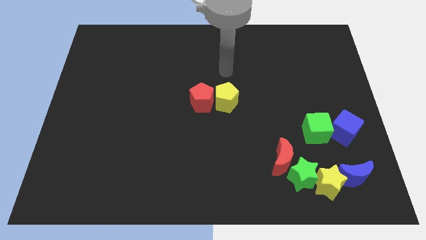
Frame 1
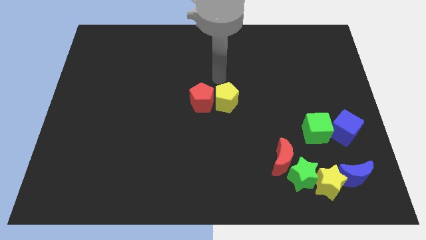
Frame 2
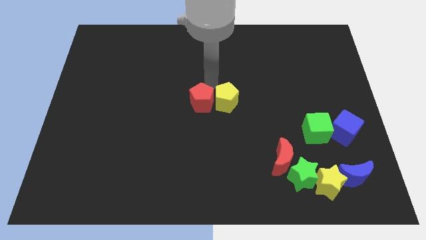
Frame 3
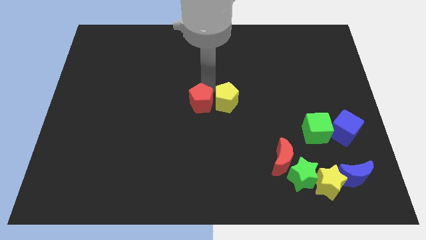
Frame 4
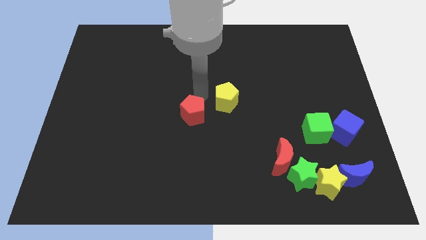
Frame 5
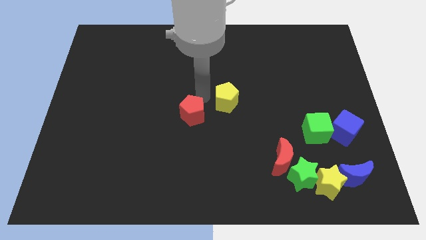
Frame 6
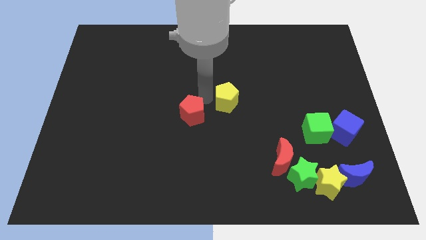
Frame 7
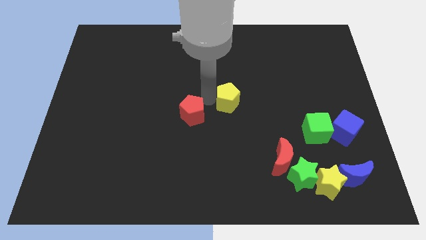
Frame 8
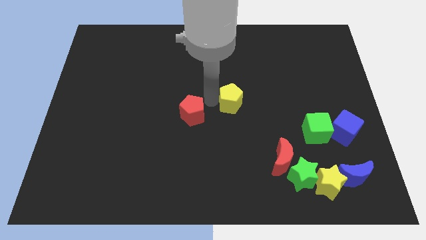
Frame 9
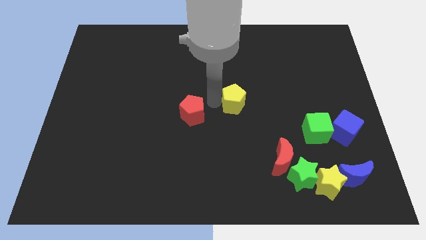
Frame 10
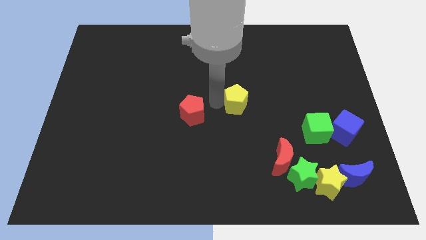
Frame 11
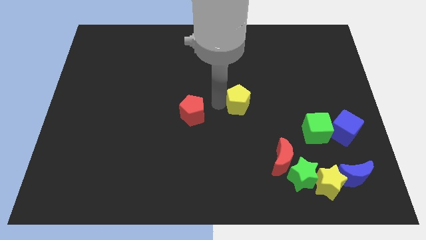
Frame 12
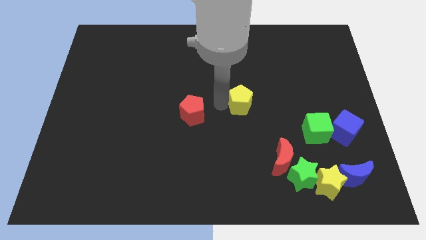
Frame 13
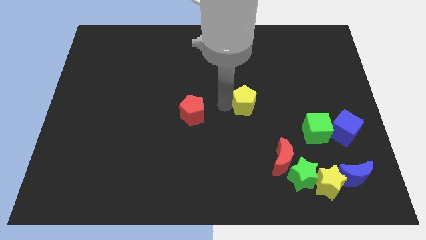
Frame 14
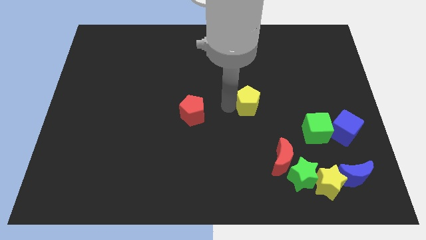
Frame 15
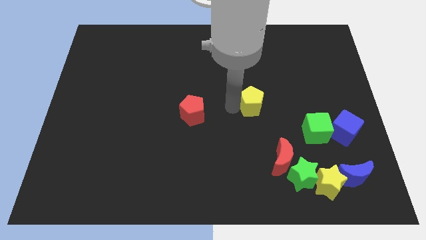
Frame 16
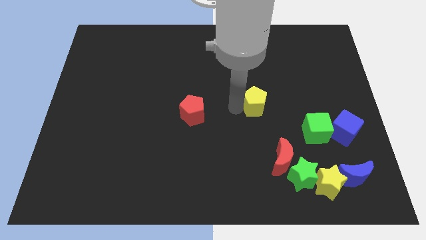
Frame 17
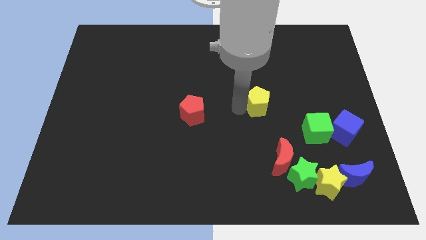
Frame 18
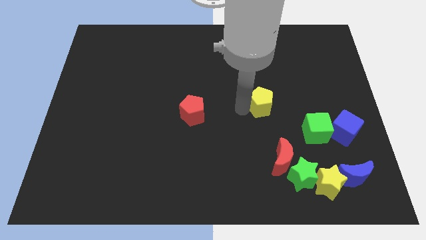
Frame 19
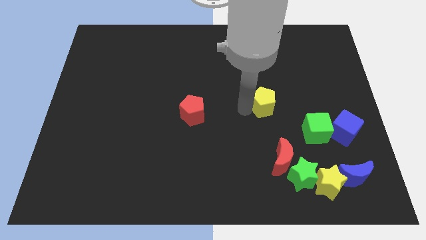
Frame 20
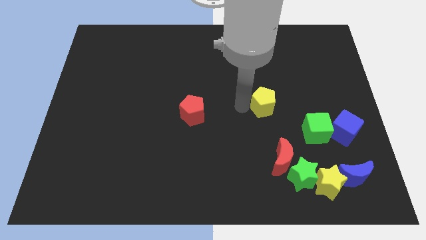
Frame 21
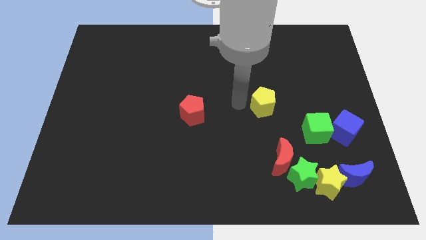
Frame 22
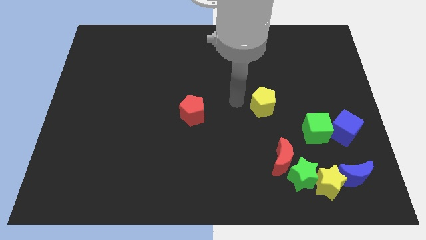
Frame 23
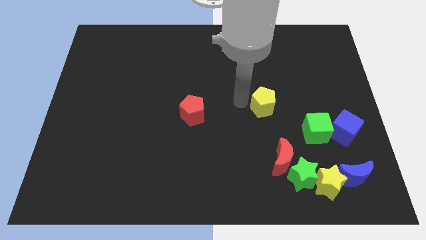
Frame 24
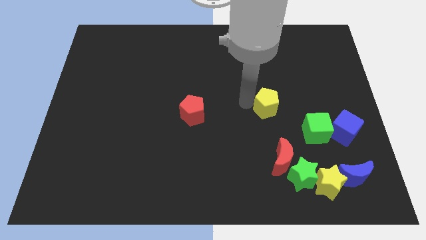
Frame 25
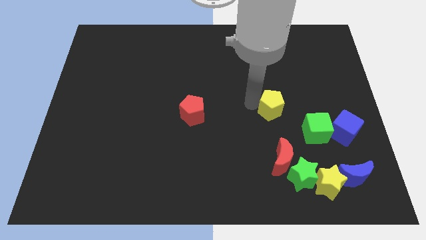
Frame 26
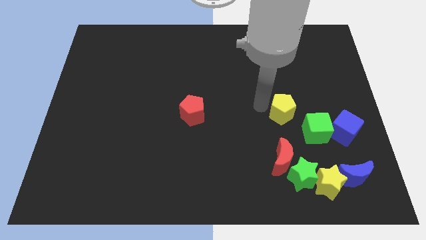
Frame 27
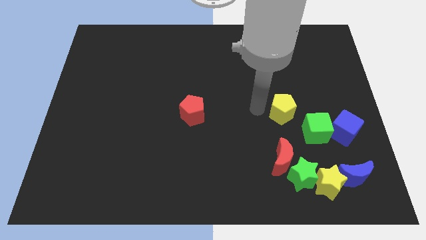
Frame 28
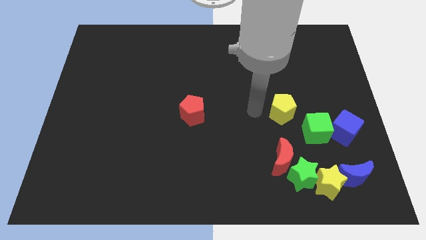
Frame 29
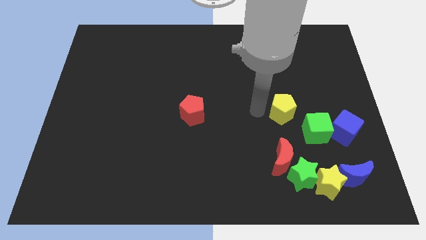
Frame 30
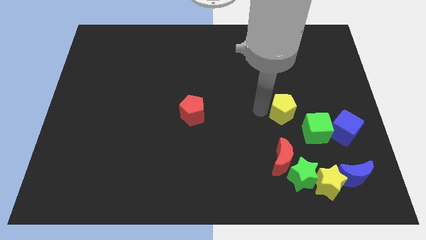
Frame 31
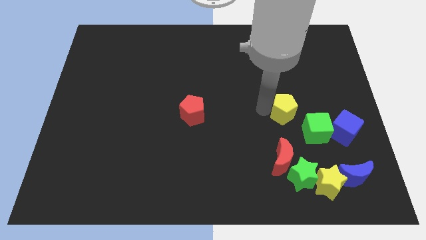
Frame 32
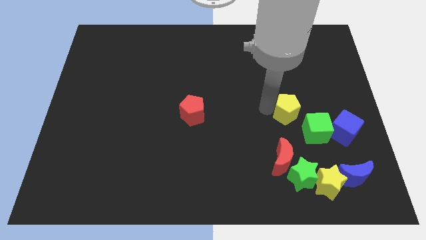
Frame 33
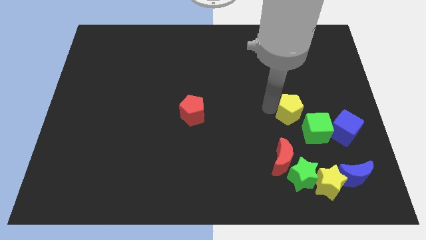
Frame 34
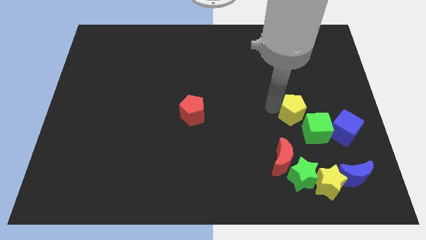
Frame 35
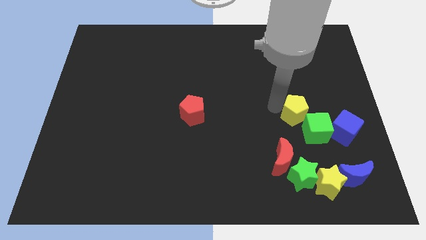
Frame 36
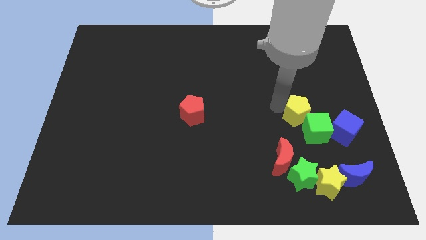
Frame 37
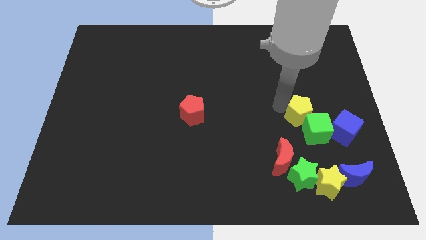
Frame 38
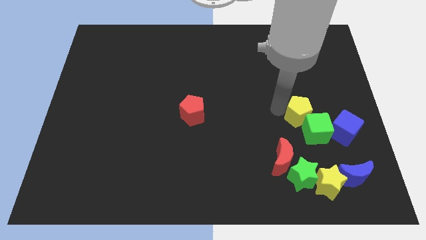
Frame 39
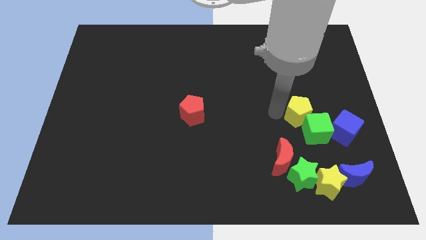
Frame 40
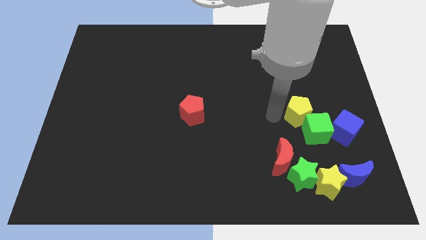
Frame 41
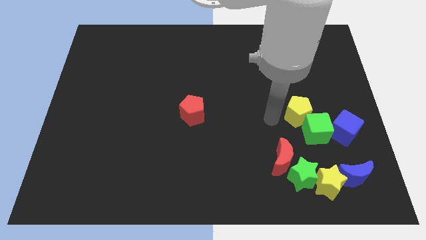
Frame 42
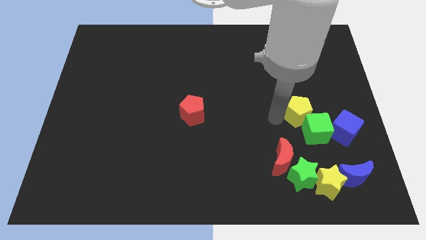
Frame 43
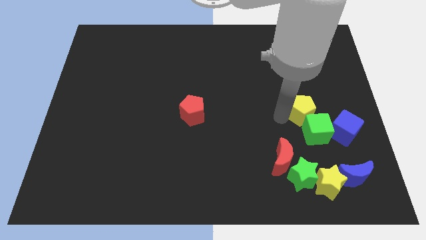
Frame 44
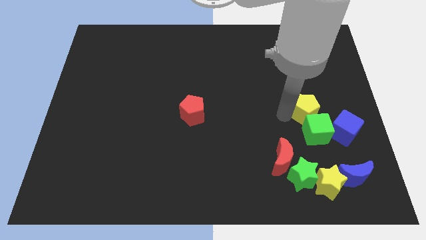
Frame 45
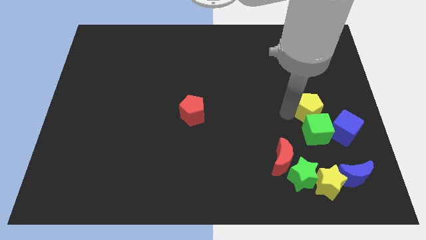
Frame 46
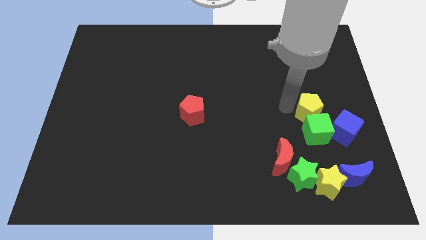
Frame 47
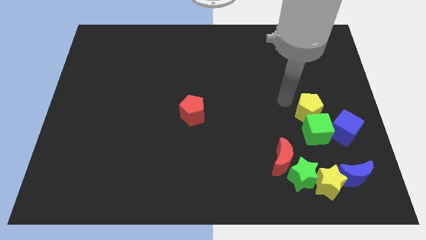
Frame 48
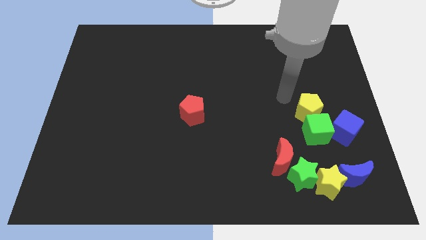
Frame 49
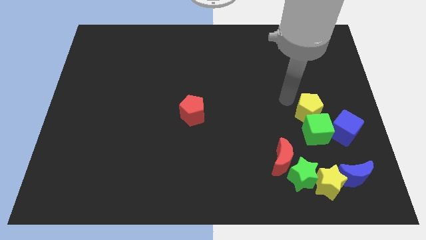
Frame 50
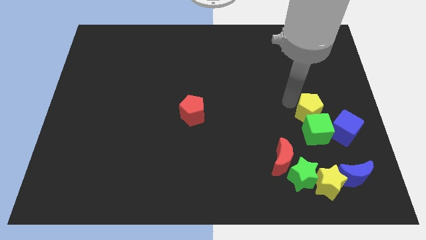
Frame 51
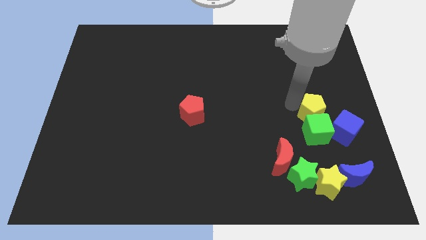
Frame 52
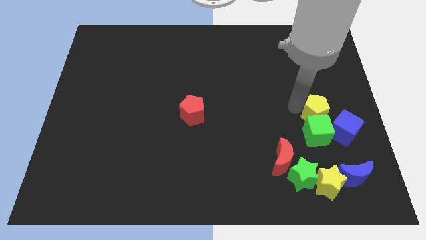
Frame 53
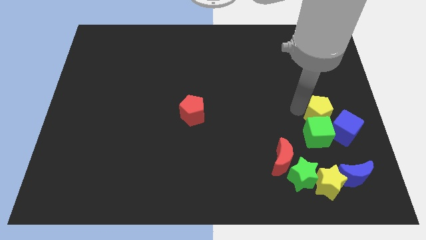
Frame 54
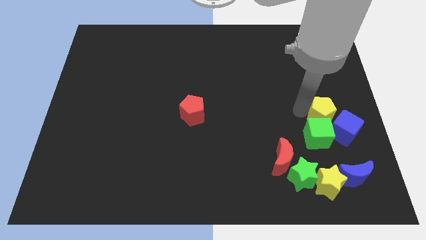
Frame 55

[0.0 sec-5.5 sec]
push the yellow pentagon towards the blue cube

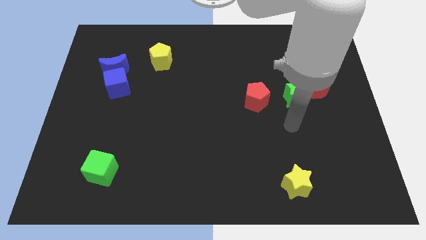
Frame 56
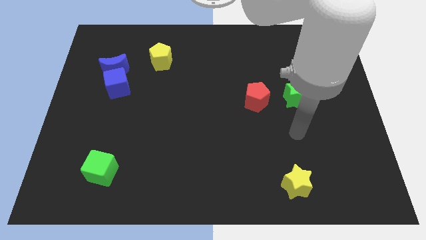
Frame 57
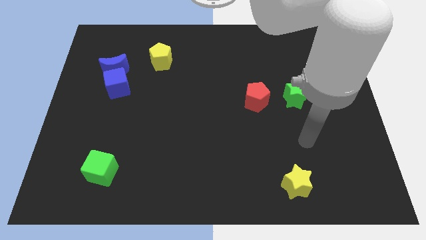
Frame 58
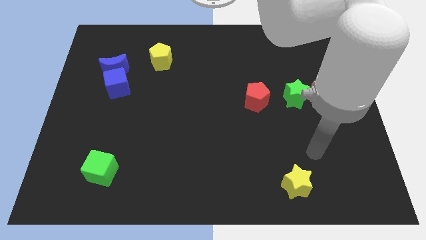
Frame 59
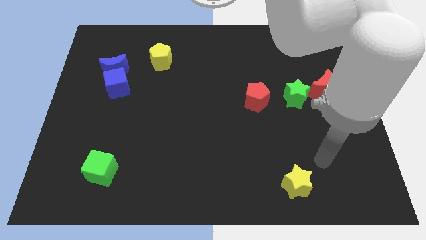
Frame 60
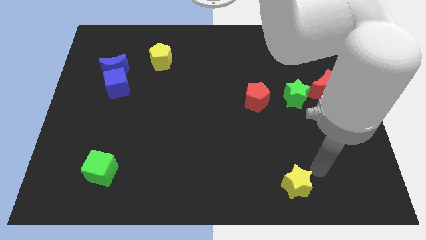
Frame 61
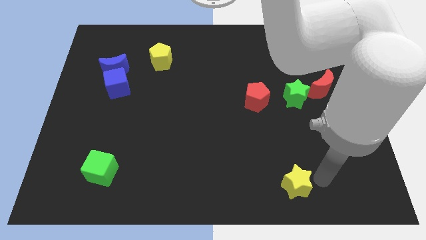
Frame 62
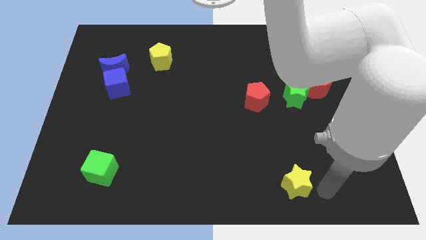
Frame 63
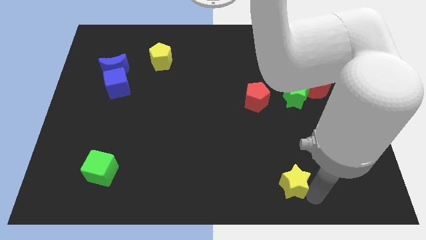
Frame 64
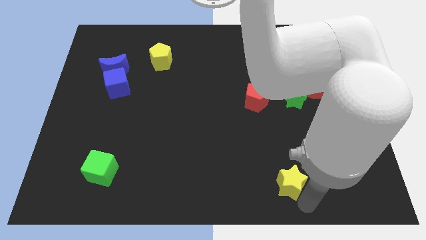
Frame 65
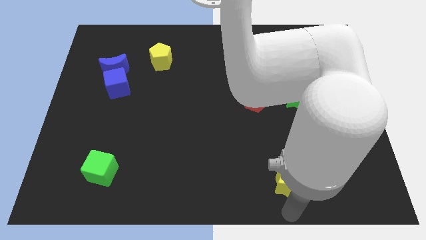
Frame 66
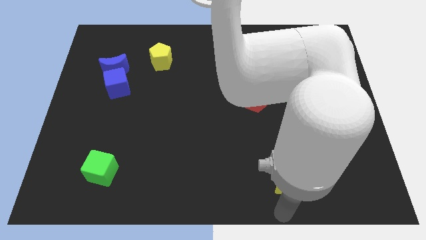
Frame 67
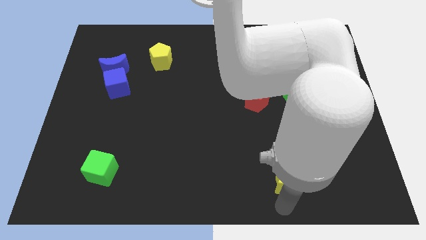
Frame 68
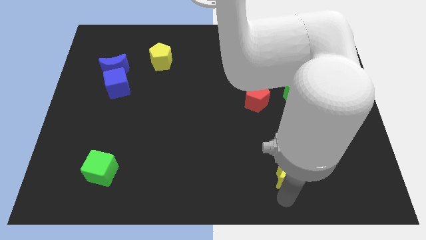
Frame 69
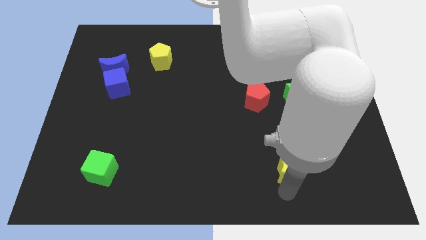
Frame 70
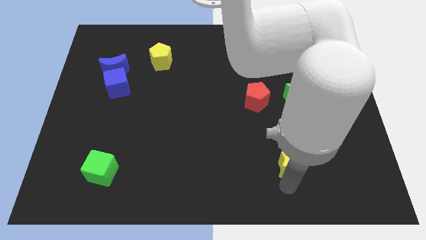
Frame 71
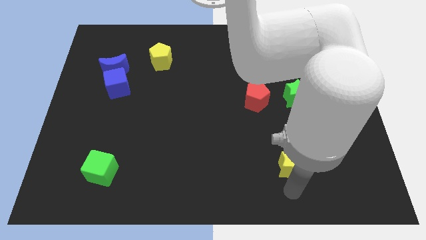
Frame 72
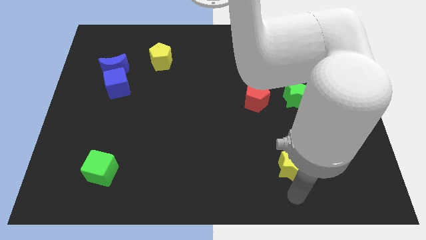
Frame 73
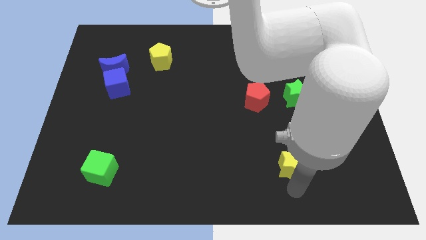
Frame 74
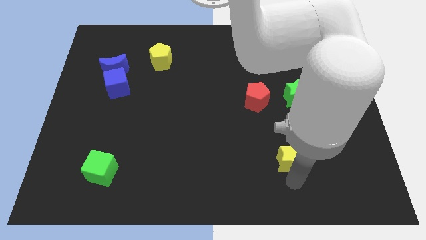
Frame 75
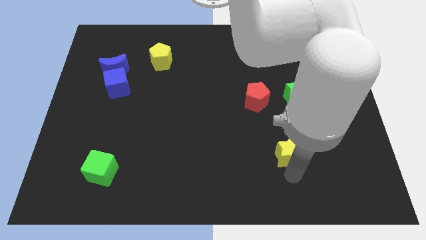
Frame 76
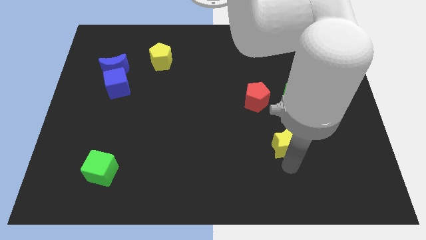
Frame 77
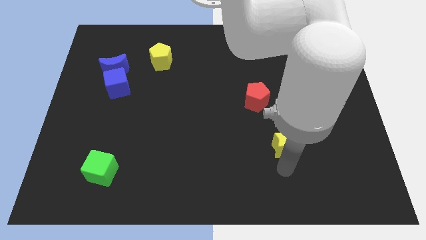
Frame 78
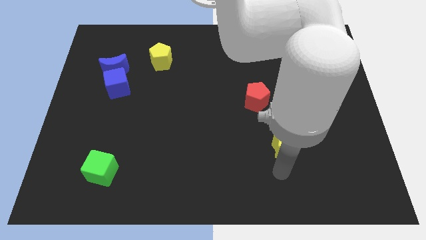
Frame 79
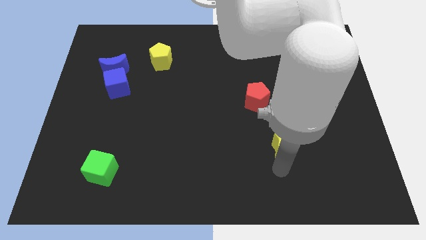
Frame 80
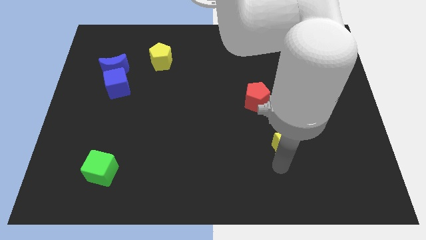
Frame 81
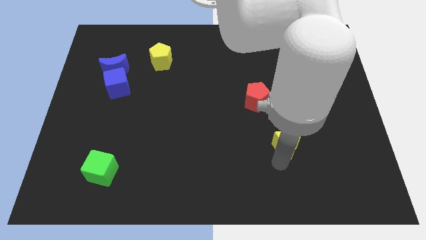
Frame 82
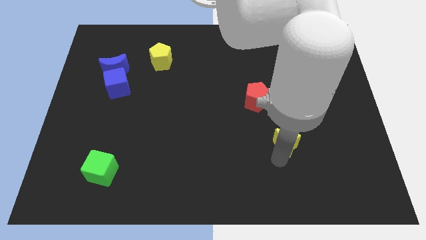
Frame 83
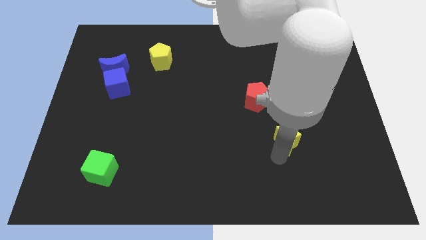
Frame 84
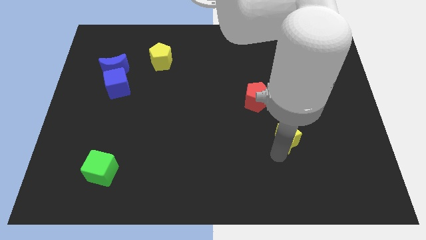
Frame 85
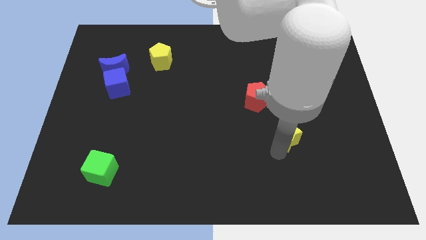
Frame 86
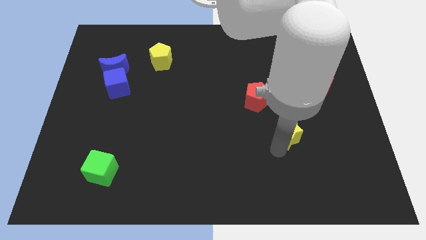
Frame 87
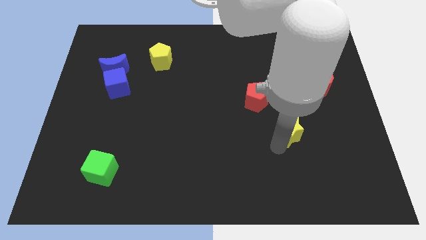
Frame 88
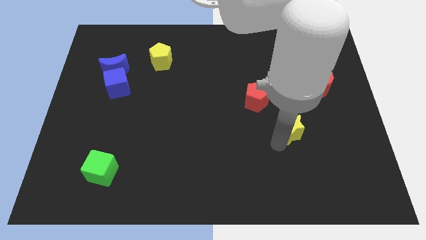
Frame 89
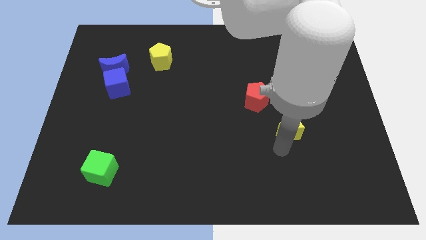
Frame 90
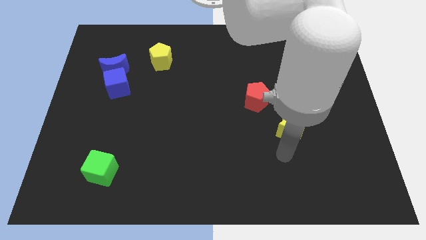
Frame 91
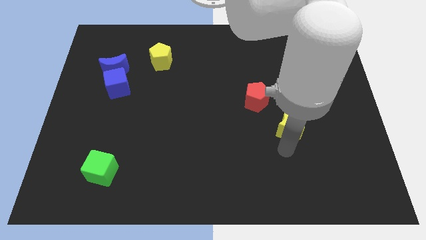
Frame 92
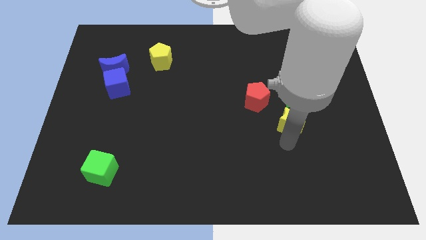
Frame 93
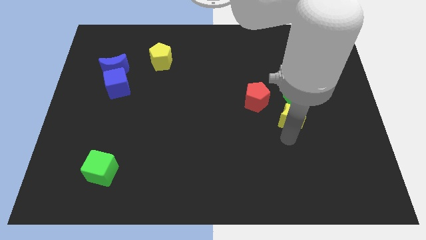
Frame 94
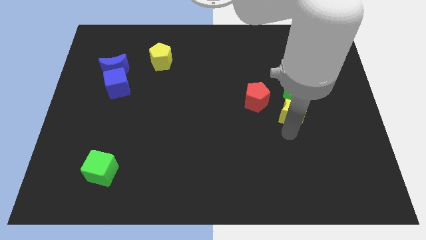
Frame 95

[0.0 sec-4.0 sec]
slide the yellow star towards the green star
